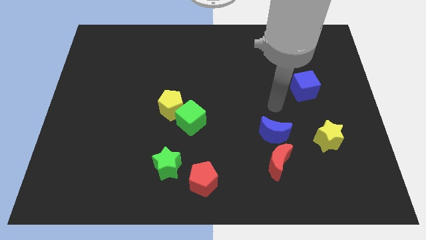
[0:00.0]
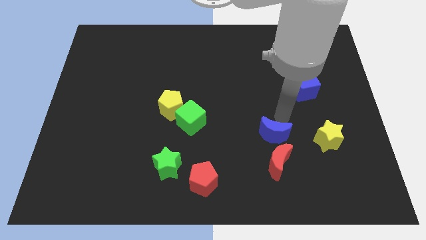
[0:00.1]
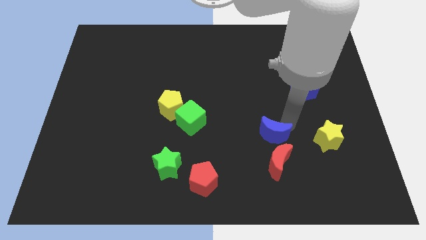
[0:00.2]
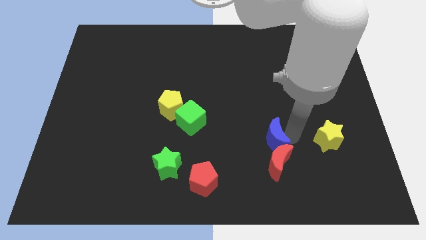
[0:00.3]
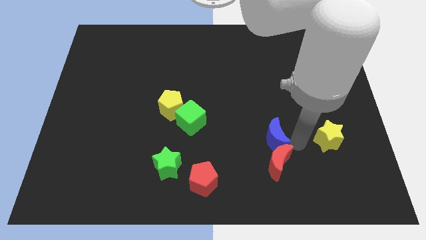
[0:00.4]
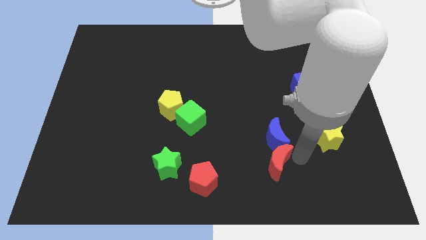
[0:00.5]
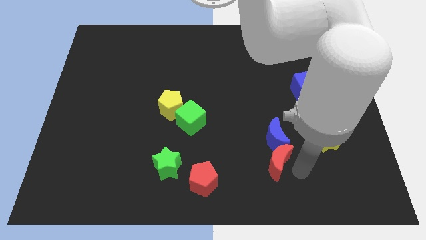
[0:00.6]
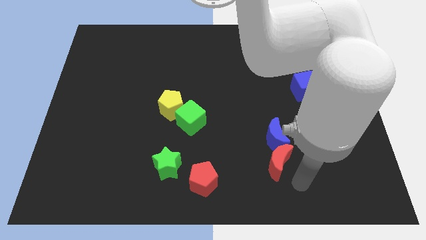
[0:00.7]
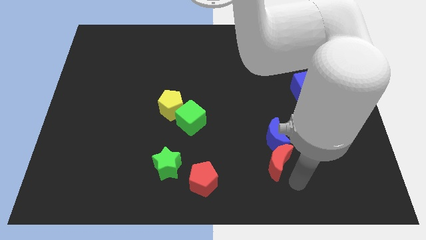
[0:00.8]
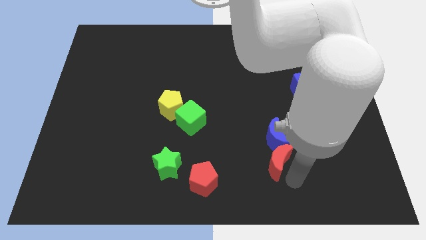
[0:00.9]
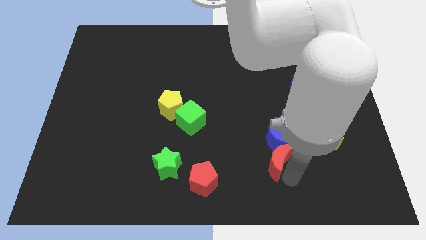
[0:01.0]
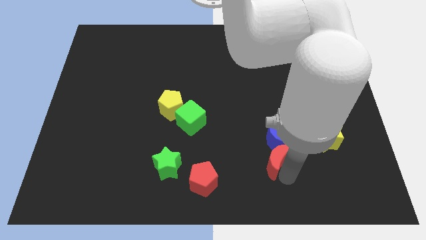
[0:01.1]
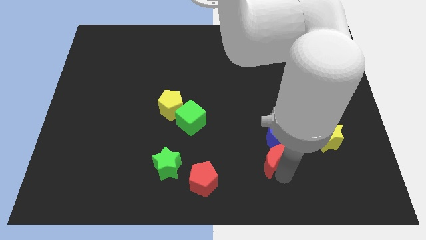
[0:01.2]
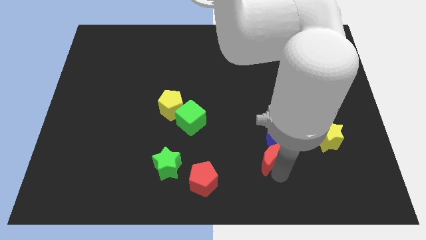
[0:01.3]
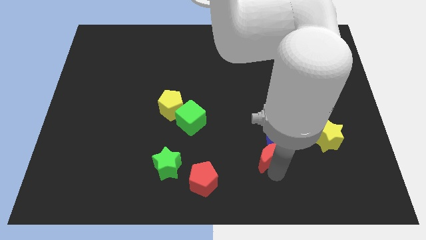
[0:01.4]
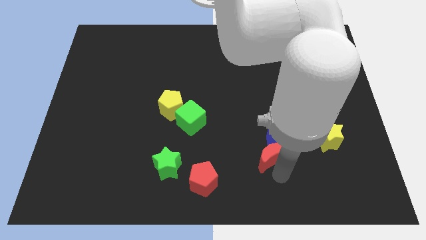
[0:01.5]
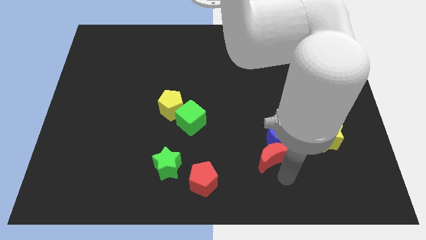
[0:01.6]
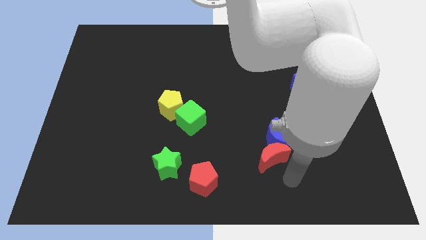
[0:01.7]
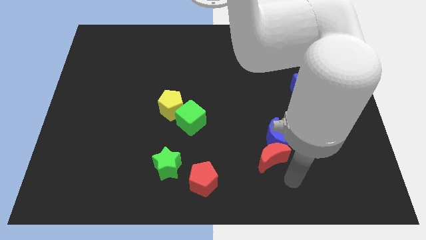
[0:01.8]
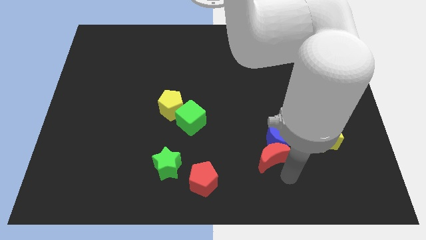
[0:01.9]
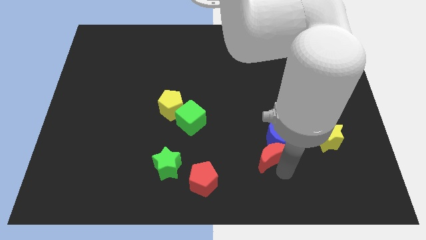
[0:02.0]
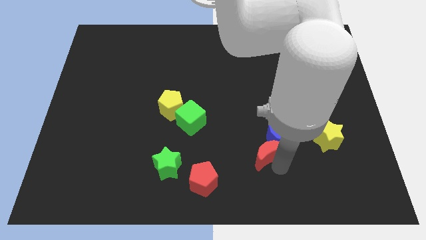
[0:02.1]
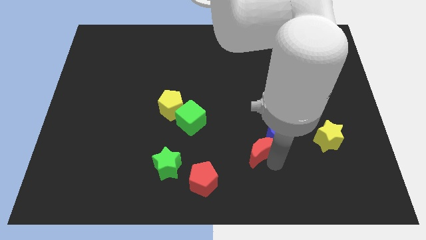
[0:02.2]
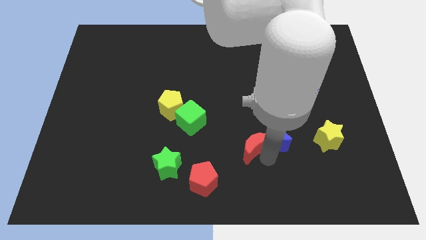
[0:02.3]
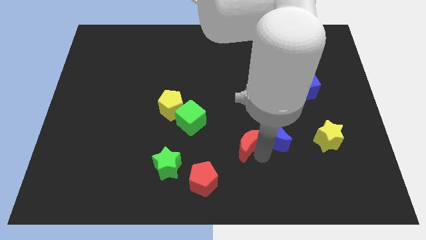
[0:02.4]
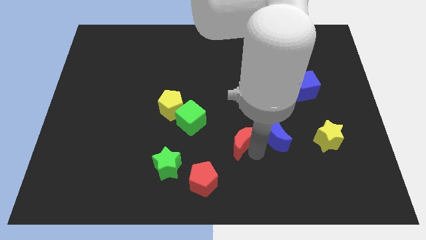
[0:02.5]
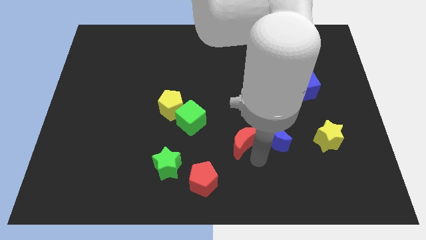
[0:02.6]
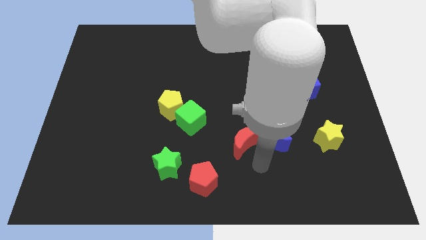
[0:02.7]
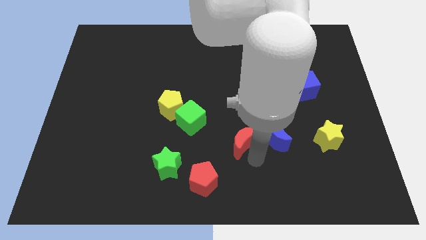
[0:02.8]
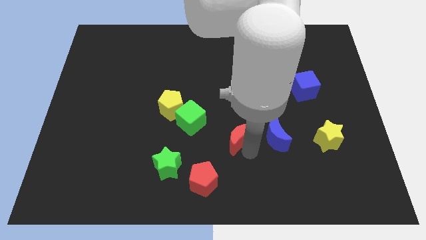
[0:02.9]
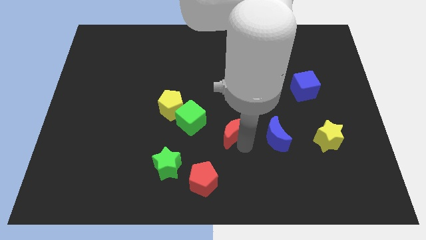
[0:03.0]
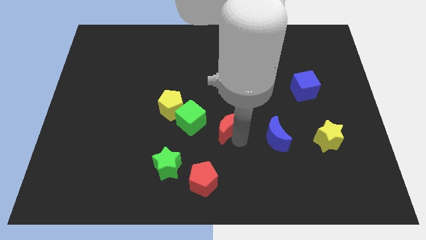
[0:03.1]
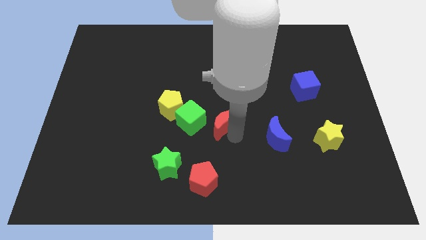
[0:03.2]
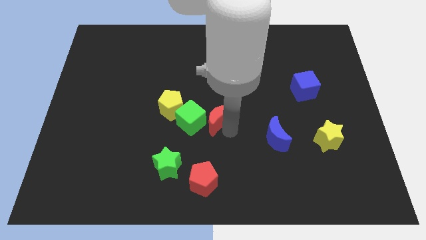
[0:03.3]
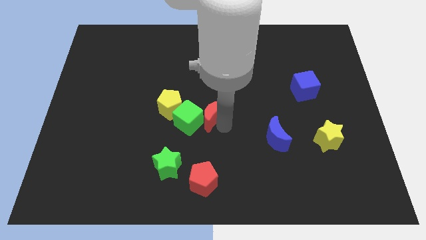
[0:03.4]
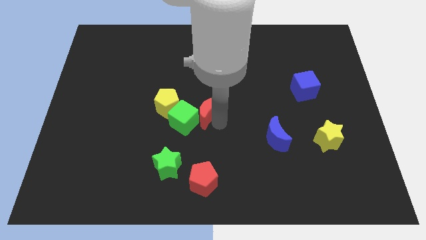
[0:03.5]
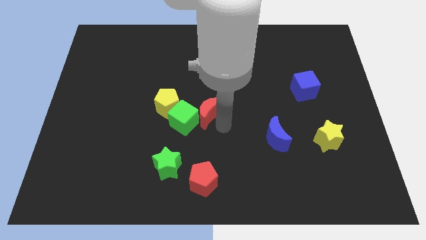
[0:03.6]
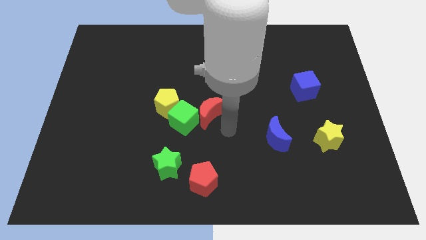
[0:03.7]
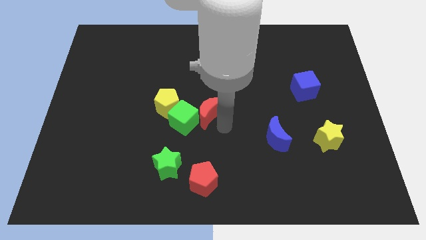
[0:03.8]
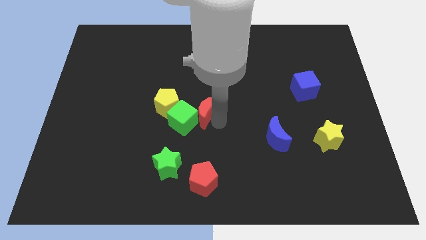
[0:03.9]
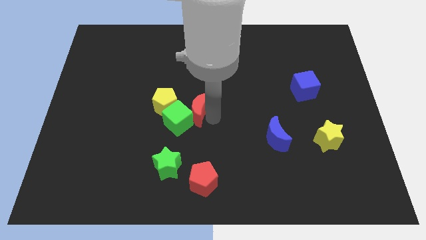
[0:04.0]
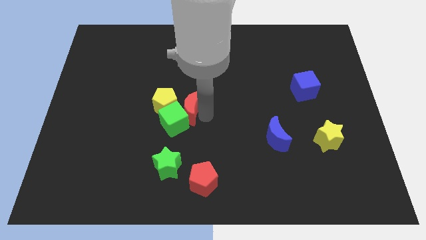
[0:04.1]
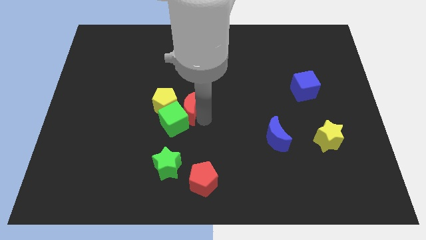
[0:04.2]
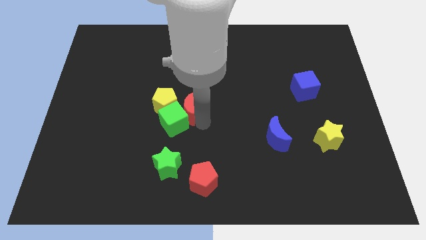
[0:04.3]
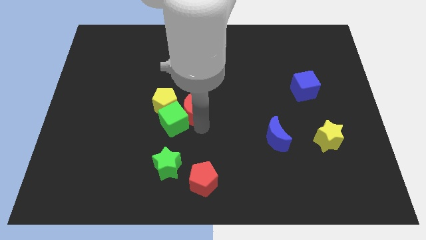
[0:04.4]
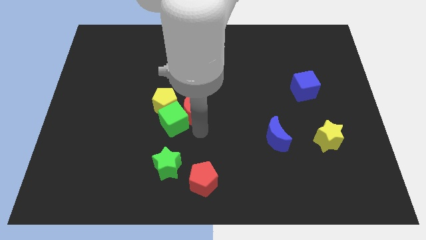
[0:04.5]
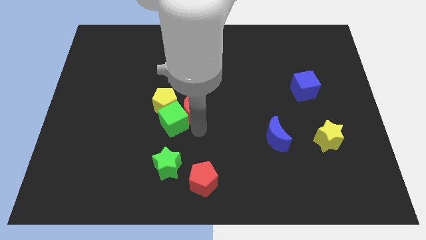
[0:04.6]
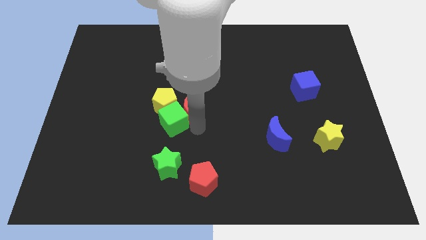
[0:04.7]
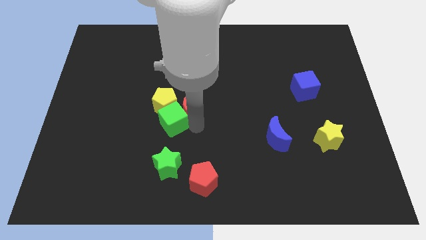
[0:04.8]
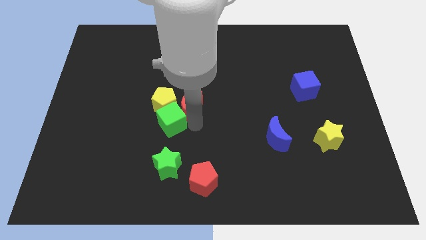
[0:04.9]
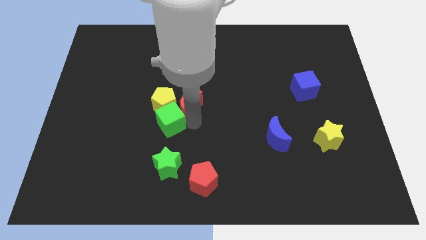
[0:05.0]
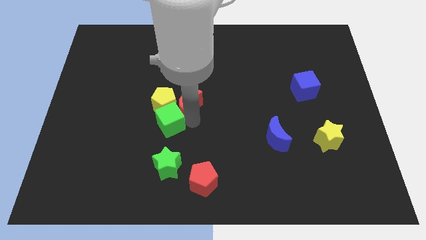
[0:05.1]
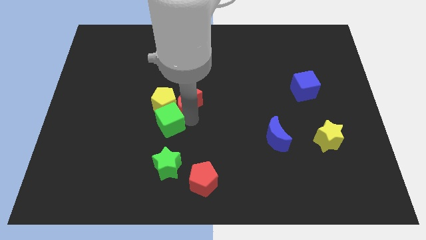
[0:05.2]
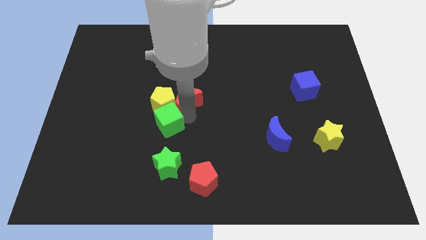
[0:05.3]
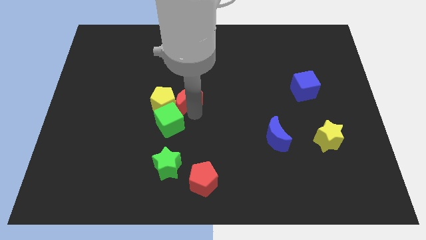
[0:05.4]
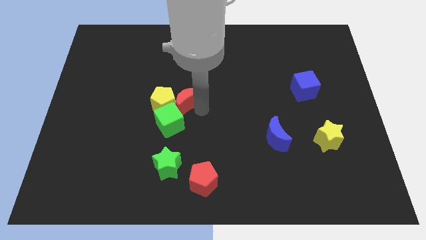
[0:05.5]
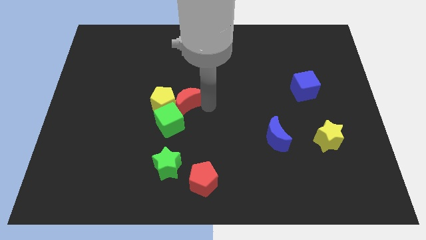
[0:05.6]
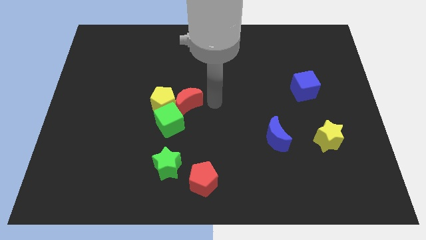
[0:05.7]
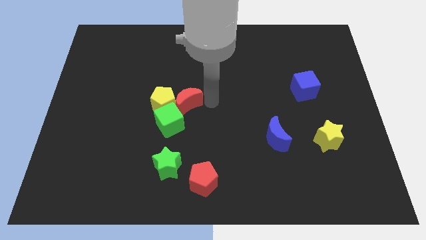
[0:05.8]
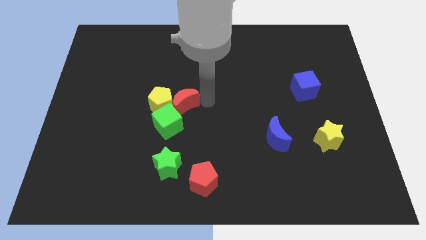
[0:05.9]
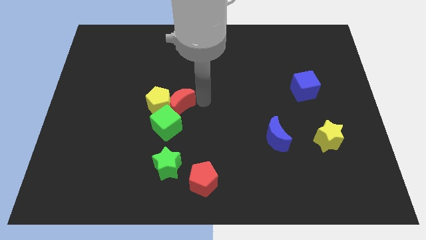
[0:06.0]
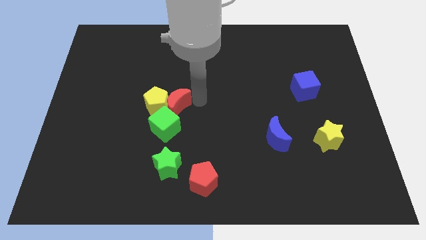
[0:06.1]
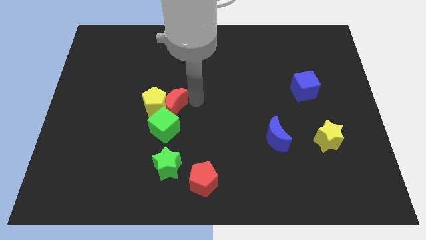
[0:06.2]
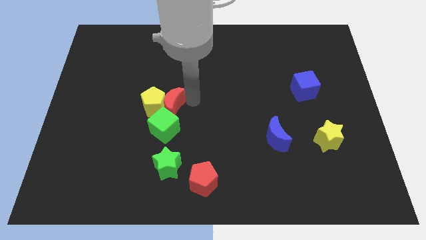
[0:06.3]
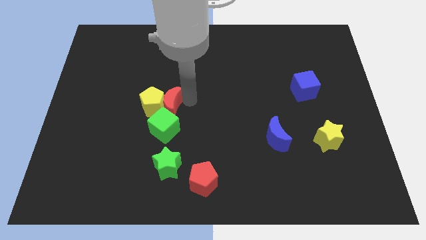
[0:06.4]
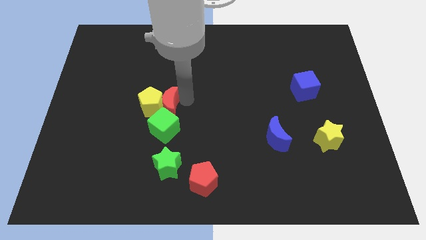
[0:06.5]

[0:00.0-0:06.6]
push the red moon diagonally up and to the left of the green cube

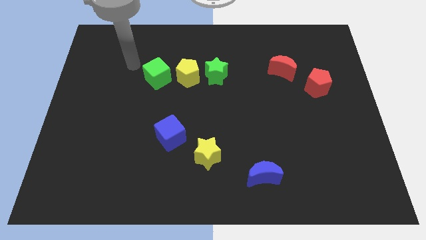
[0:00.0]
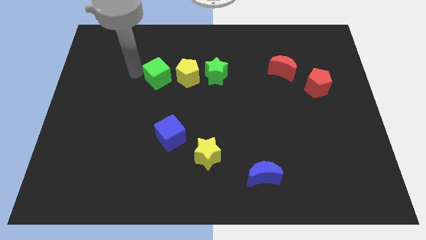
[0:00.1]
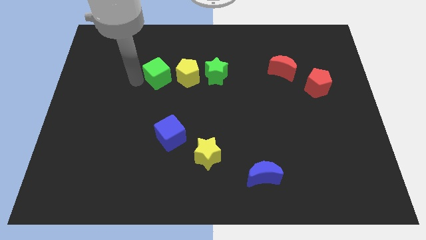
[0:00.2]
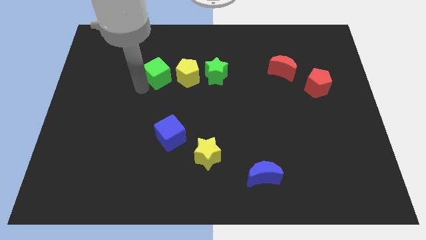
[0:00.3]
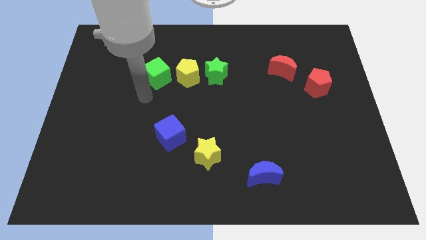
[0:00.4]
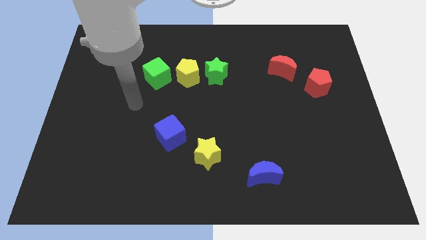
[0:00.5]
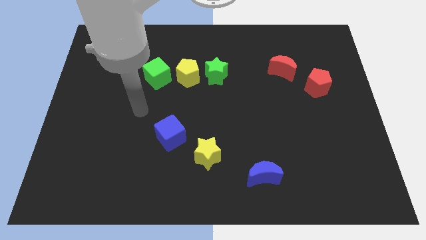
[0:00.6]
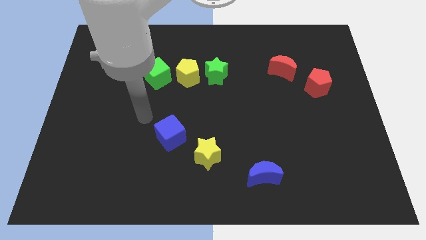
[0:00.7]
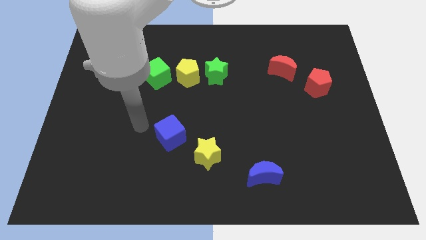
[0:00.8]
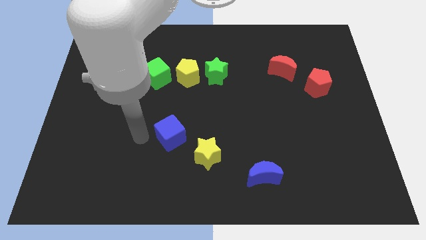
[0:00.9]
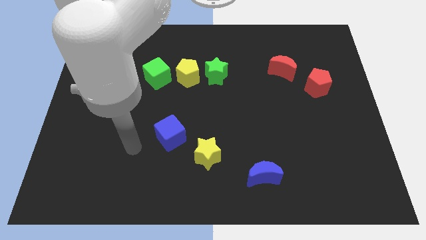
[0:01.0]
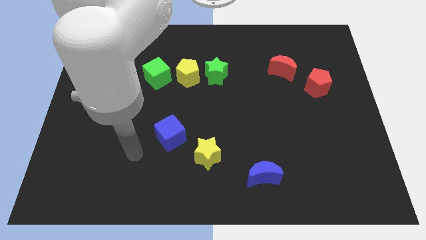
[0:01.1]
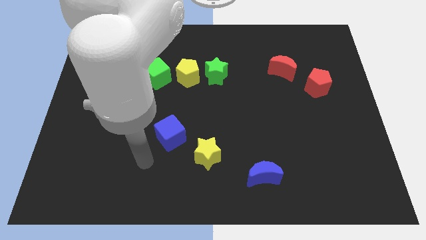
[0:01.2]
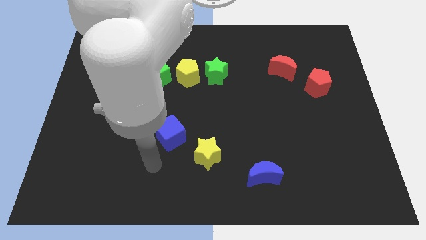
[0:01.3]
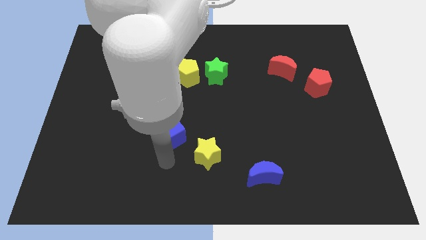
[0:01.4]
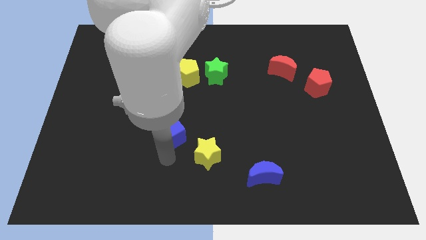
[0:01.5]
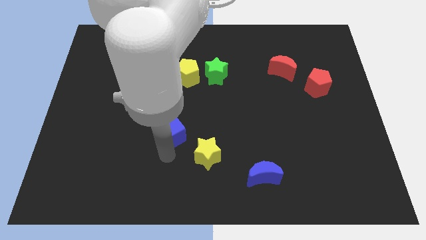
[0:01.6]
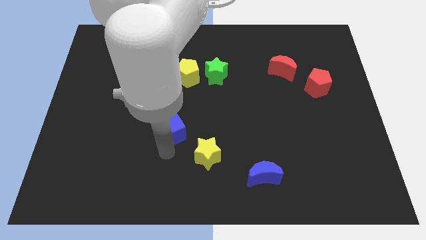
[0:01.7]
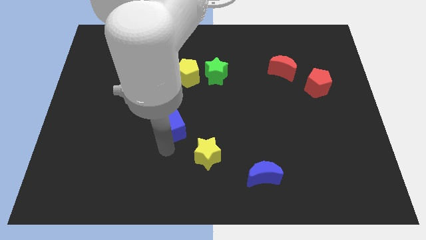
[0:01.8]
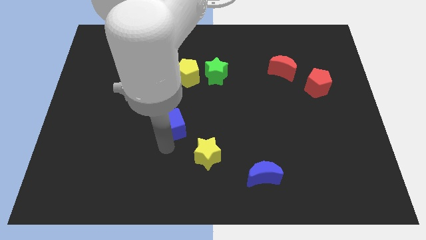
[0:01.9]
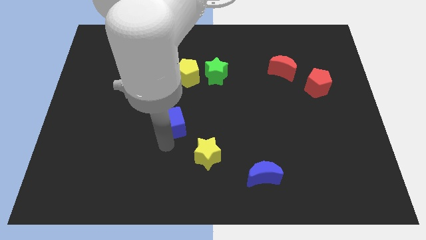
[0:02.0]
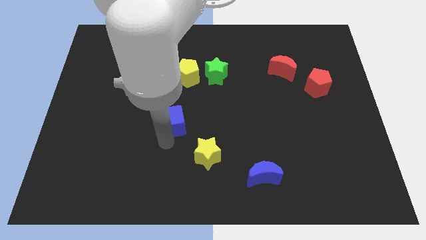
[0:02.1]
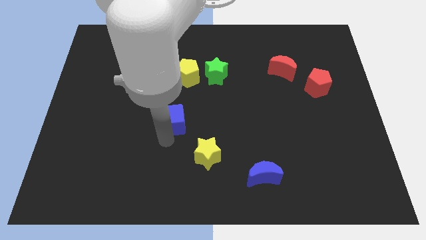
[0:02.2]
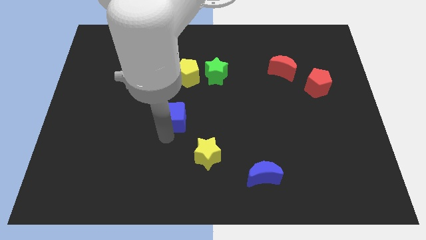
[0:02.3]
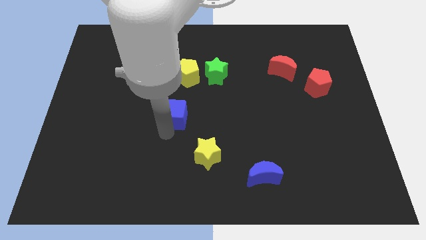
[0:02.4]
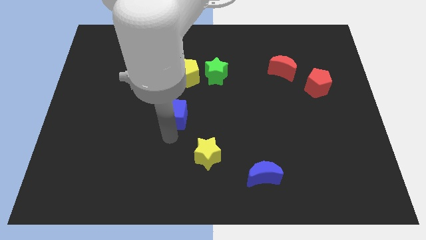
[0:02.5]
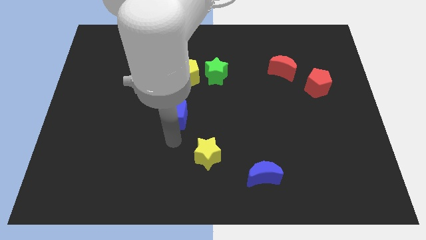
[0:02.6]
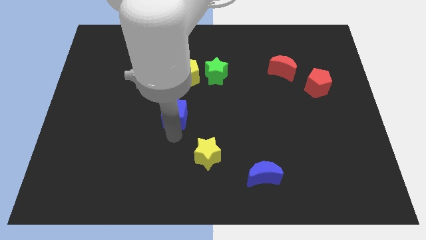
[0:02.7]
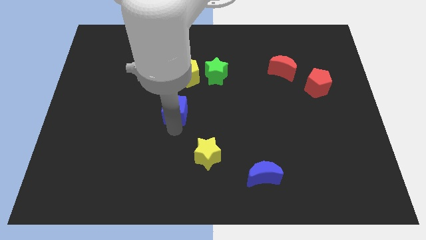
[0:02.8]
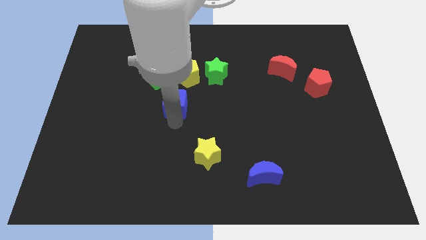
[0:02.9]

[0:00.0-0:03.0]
slide the blue cube diagonally down and to the right of the green cube
